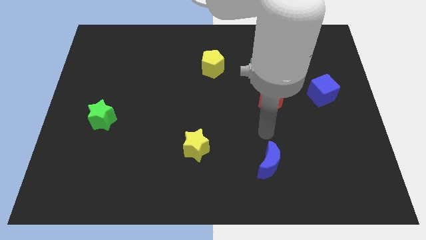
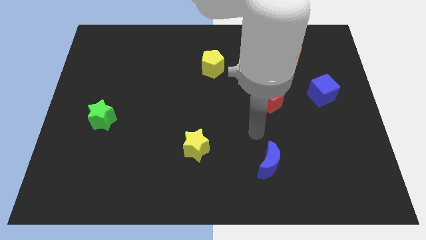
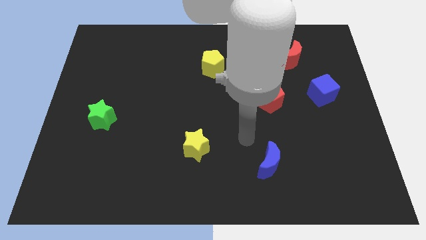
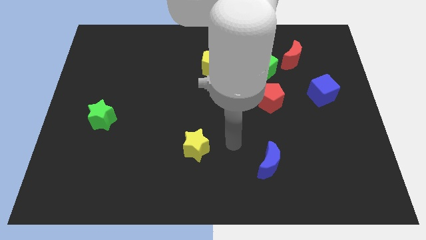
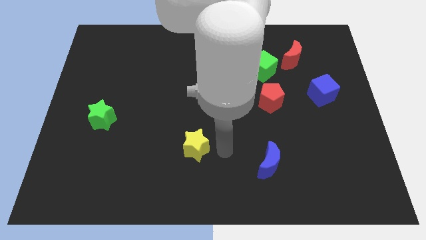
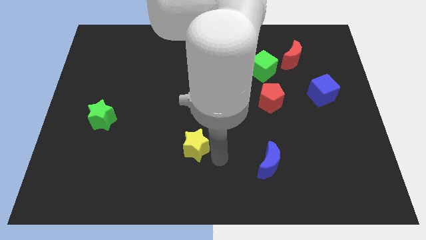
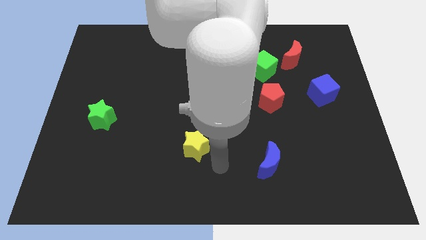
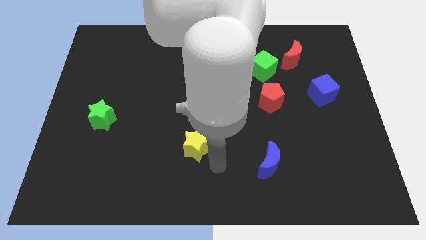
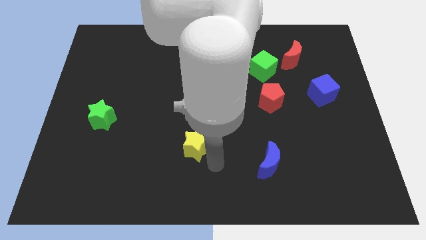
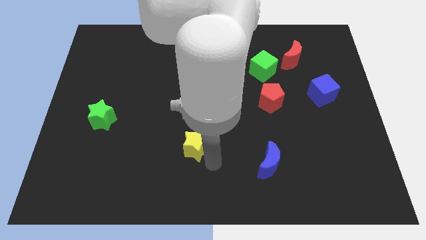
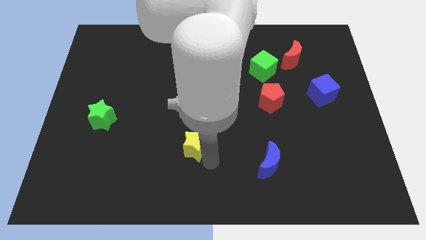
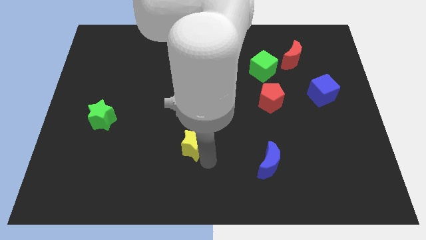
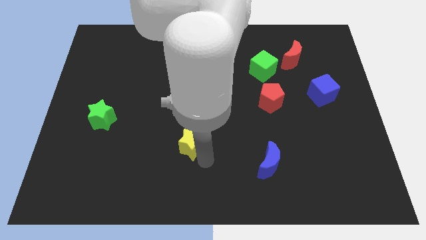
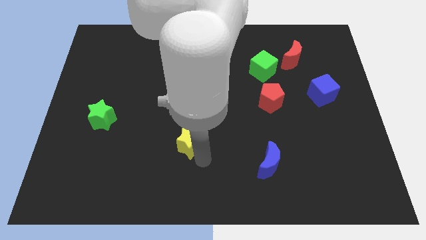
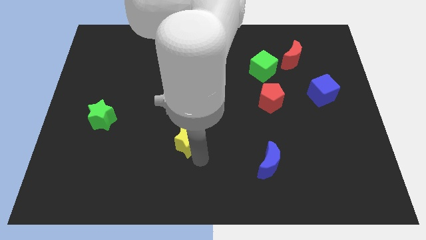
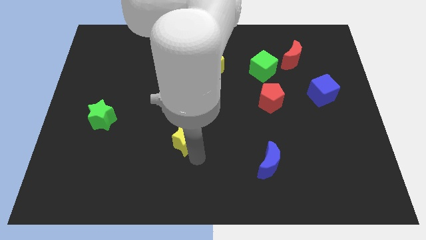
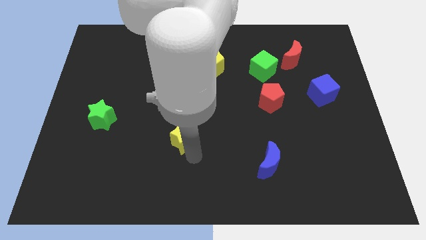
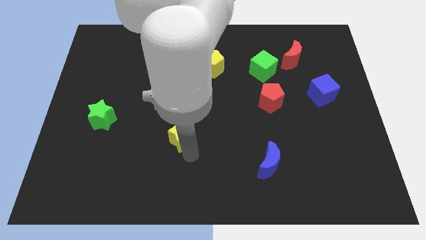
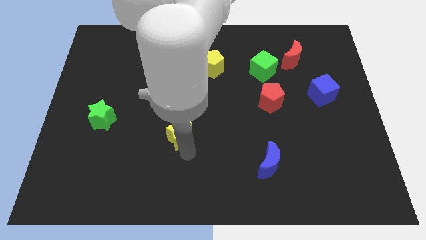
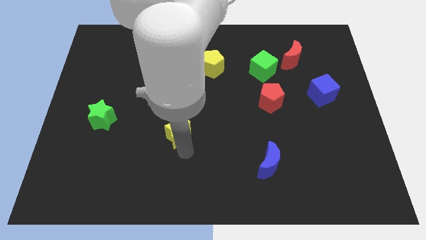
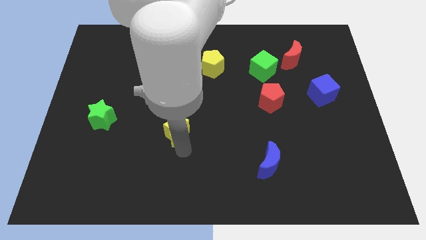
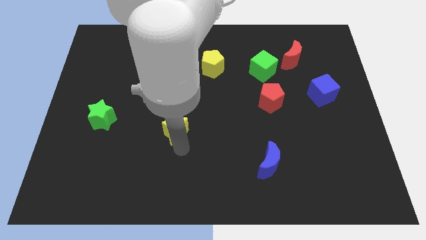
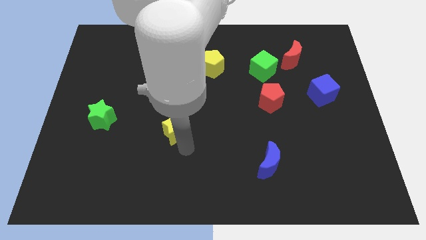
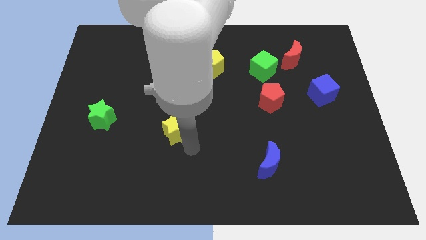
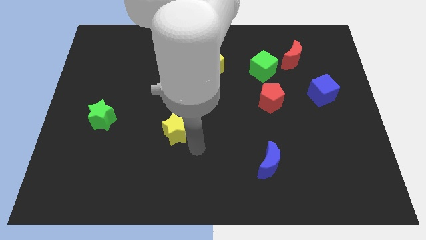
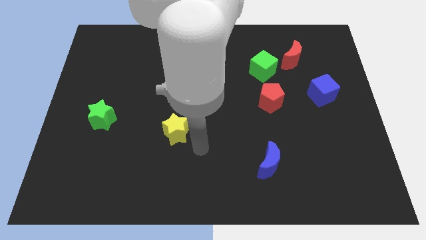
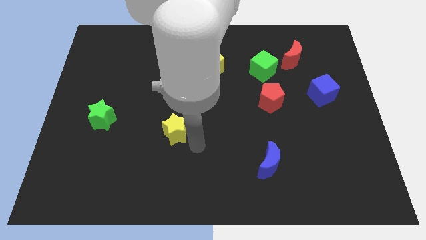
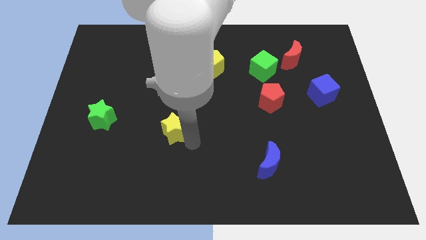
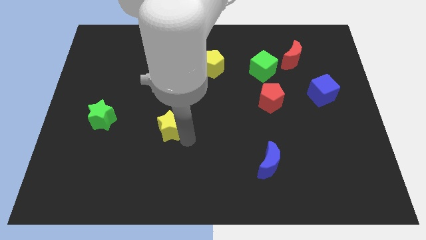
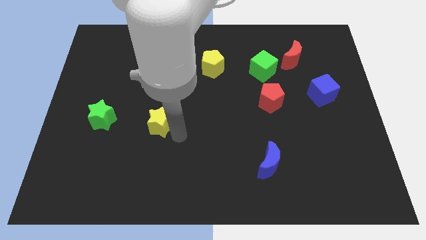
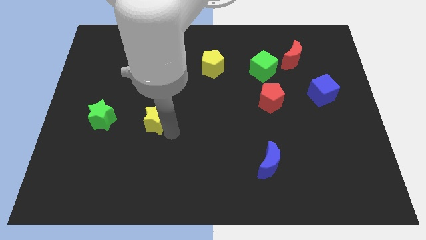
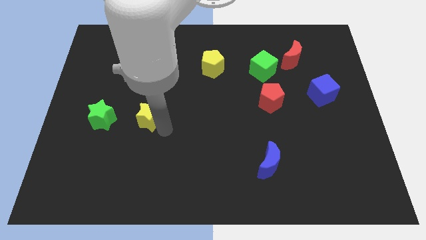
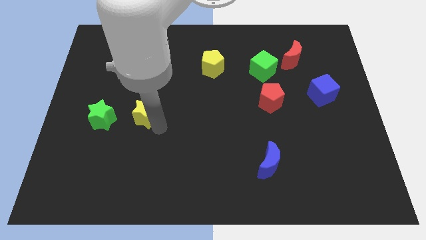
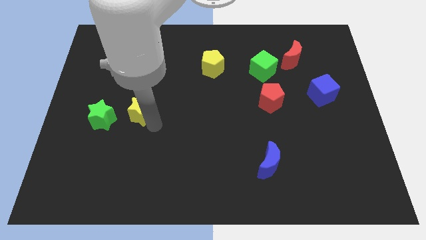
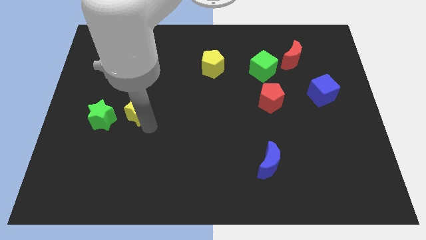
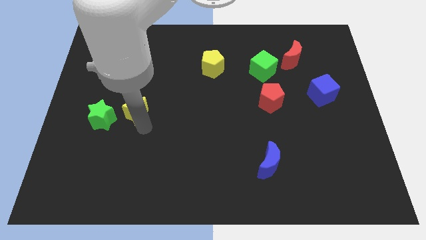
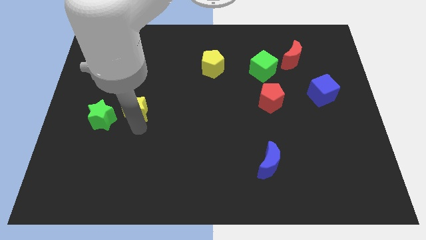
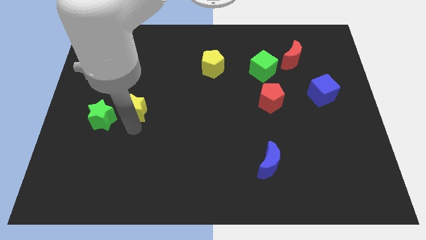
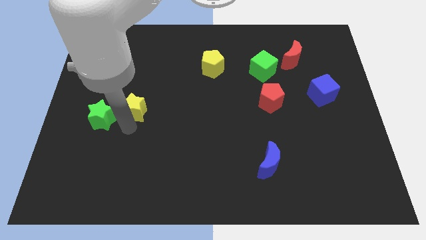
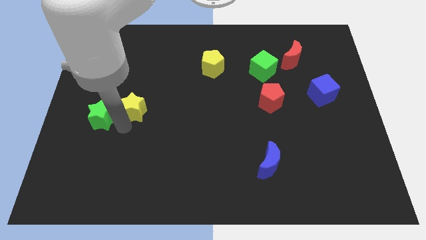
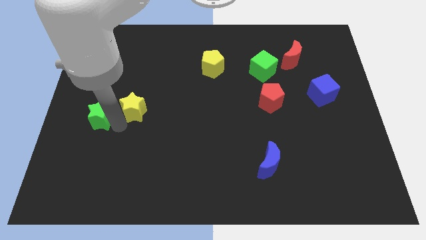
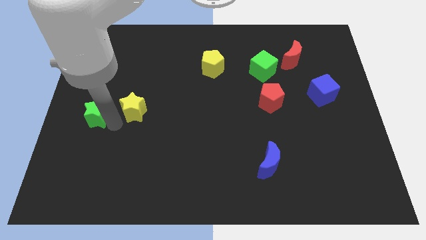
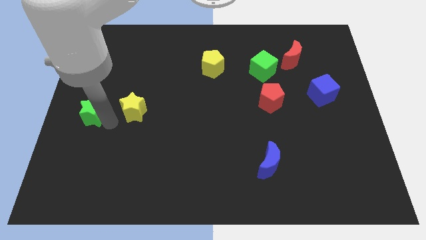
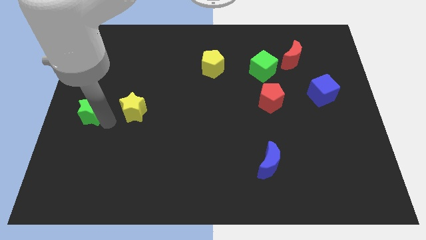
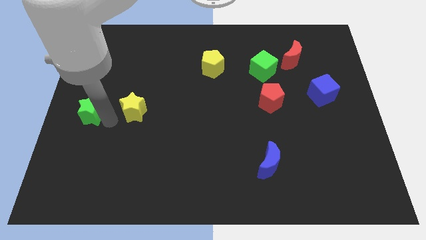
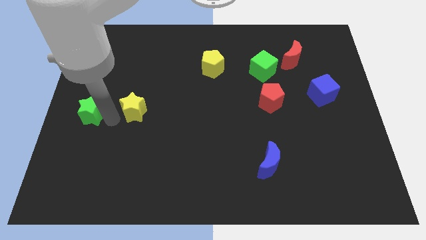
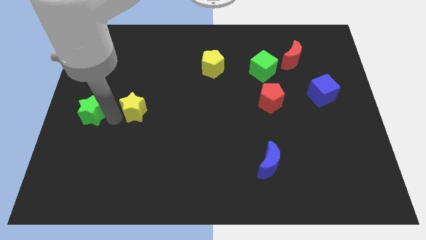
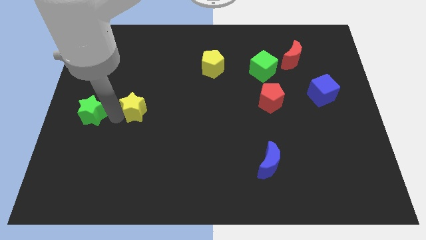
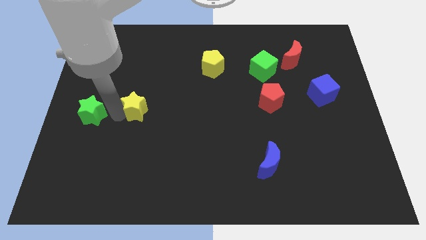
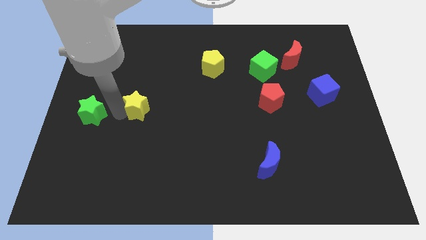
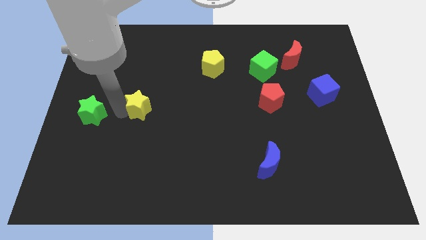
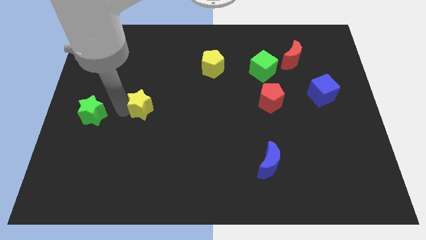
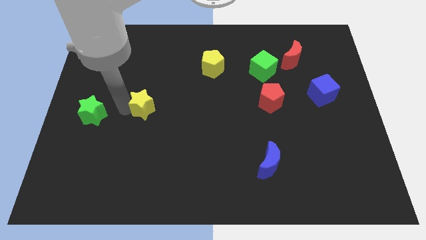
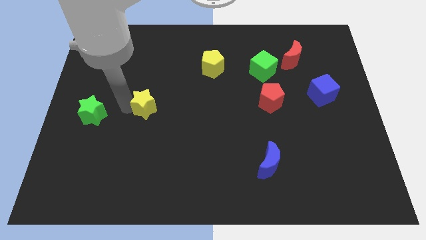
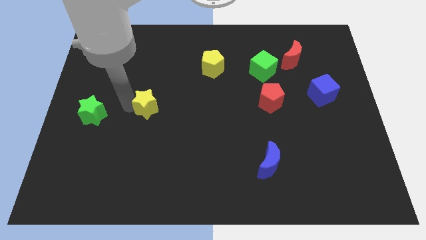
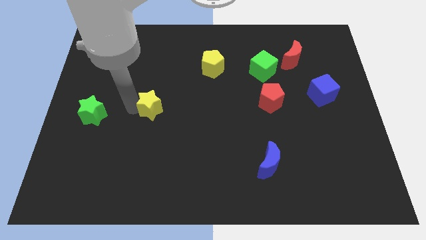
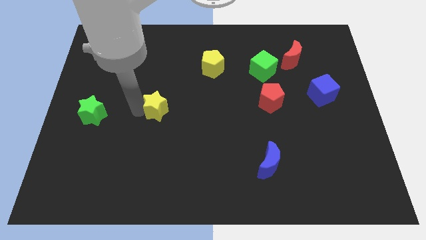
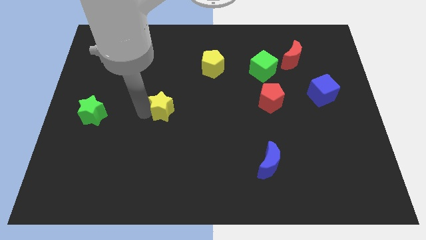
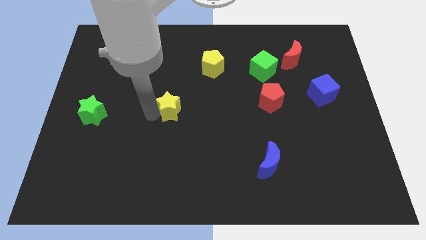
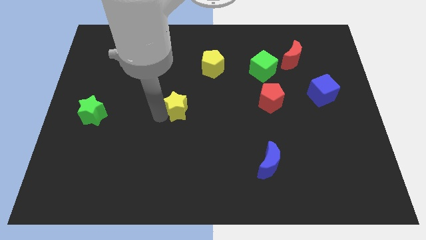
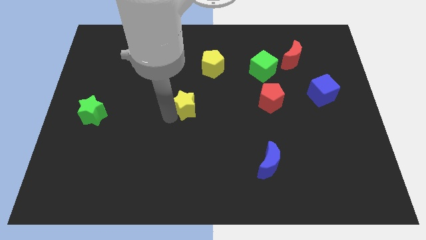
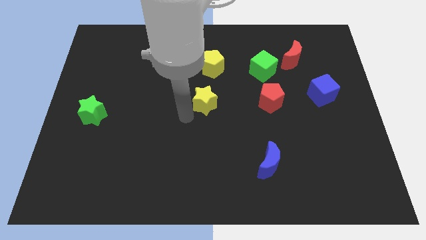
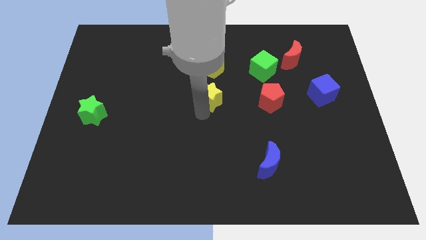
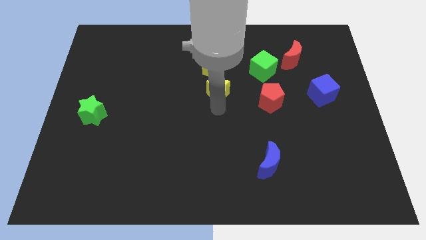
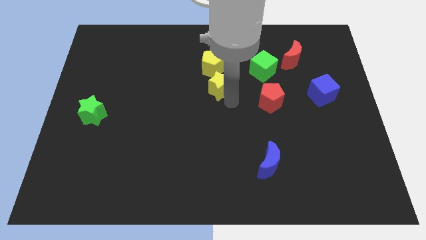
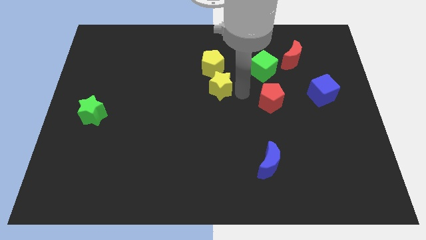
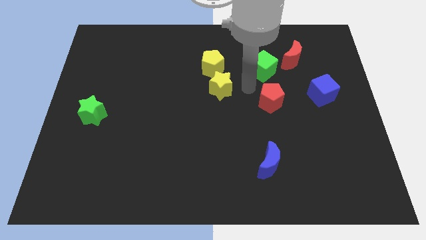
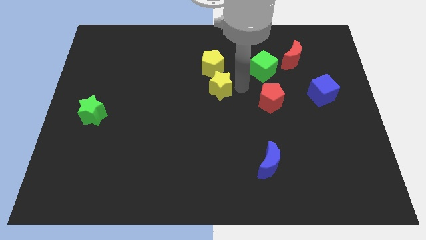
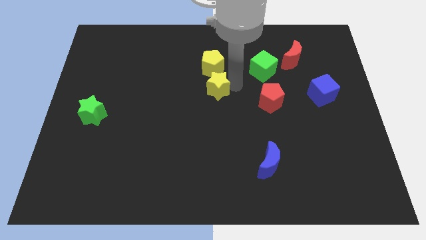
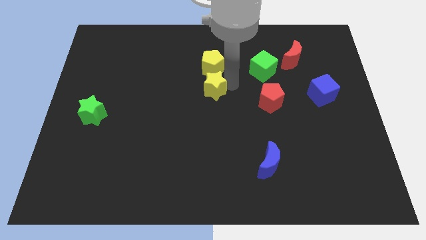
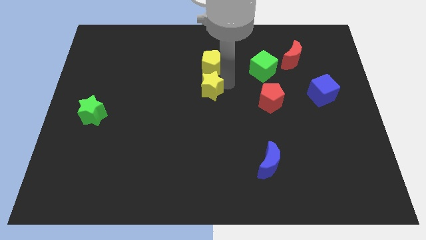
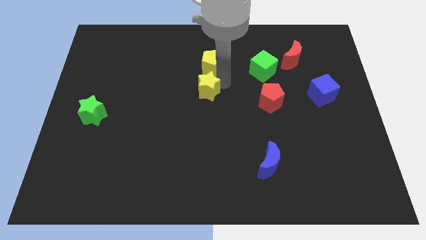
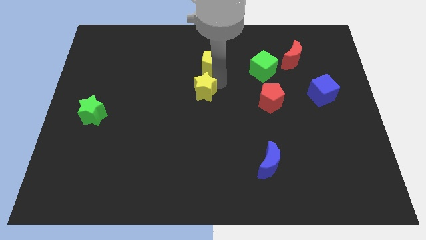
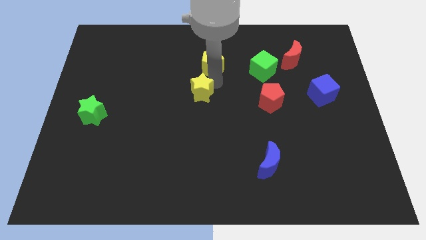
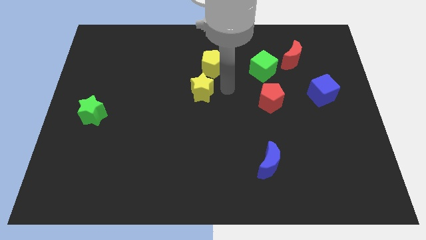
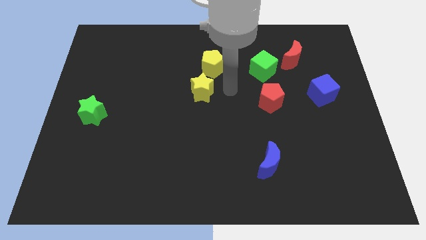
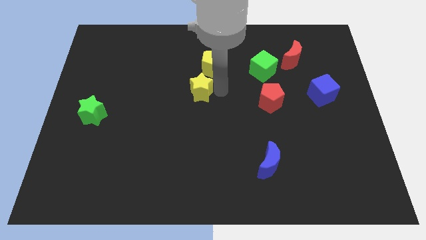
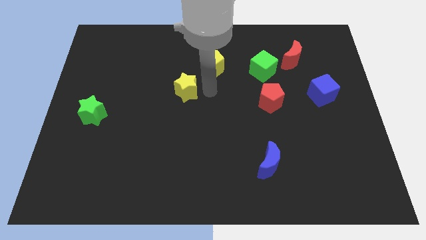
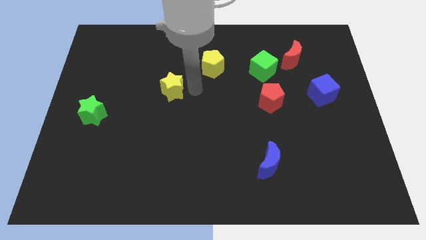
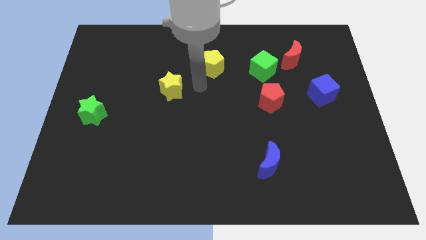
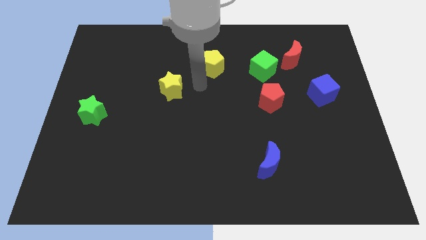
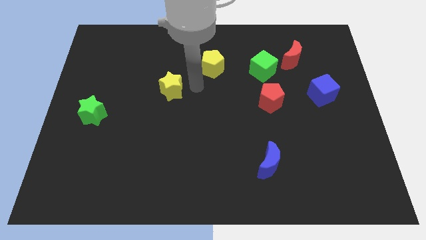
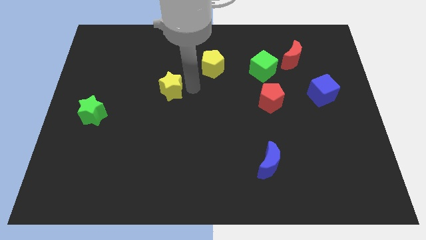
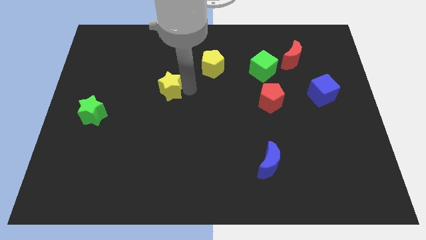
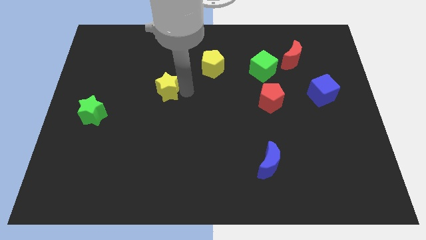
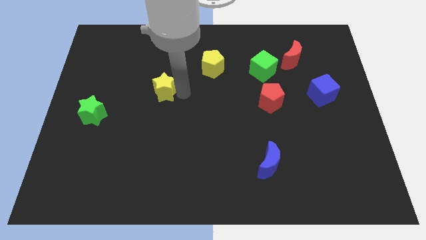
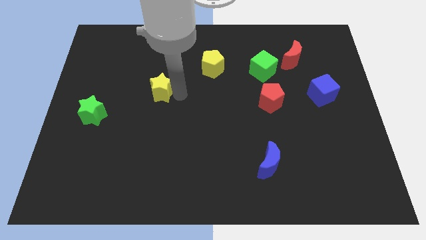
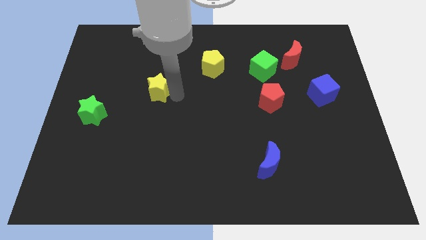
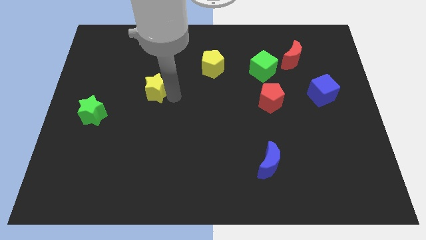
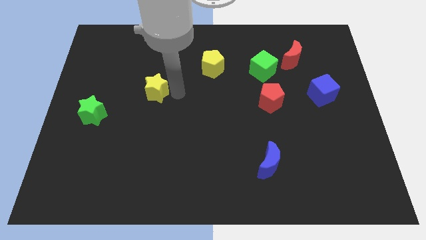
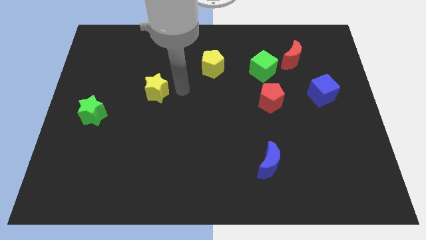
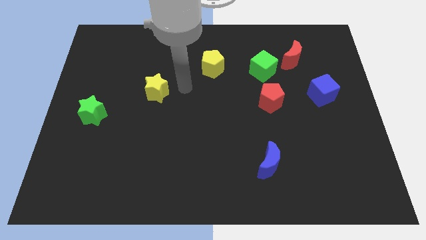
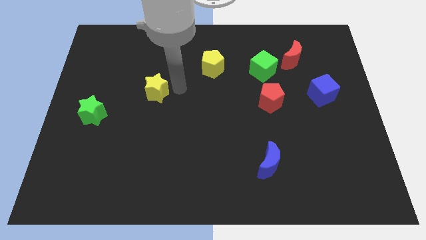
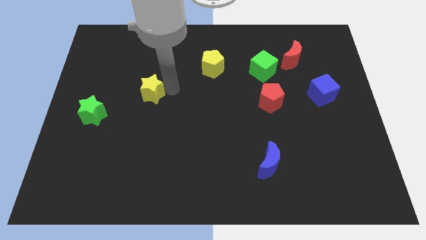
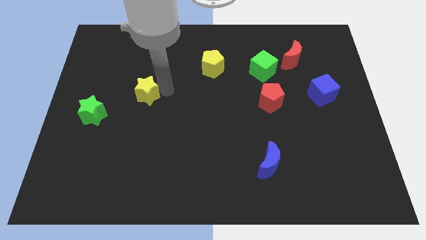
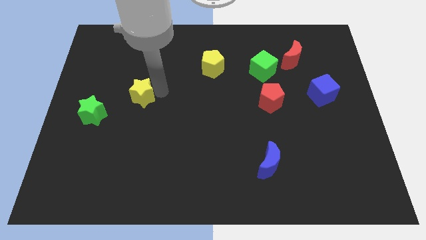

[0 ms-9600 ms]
push the yellow star upwards and to the left diagonally
